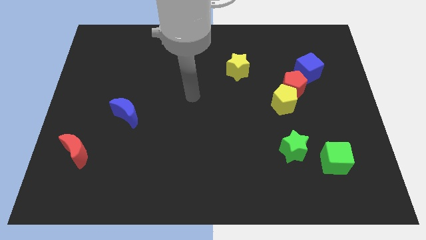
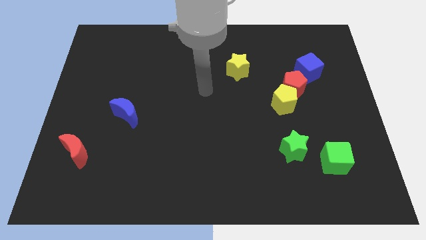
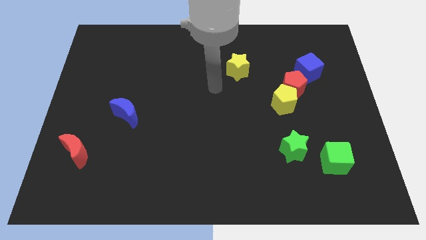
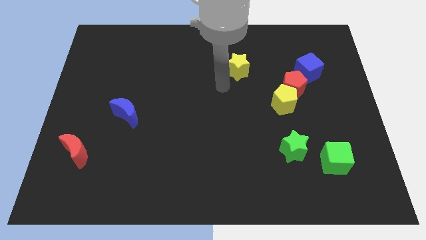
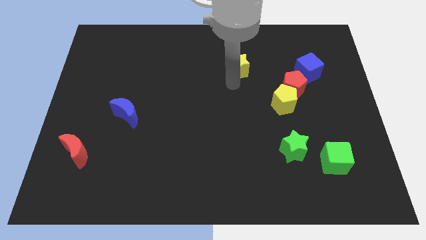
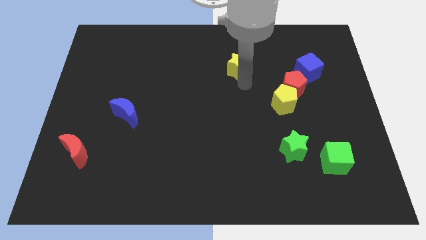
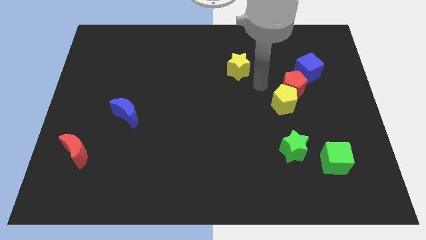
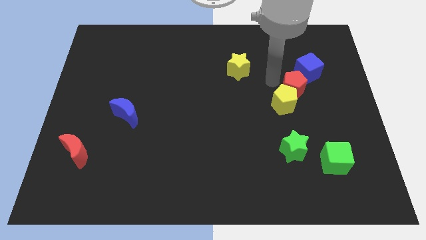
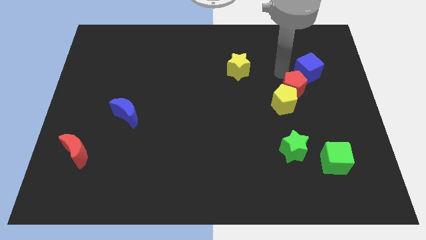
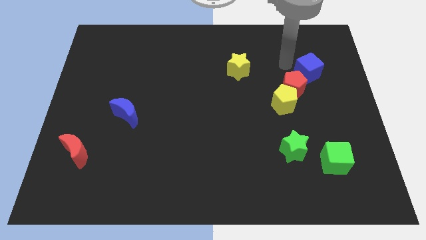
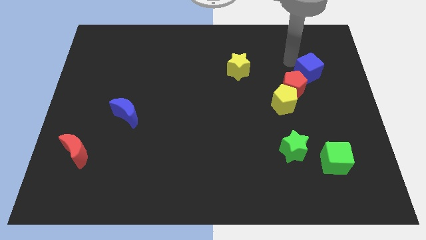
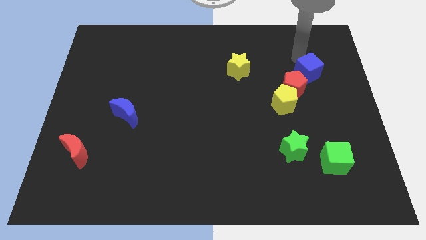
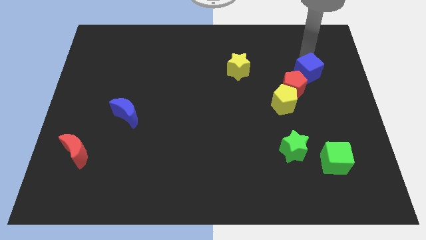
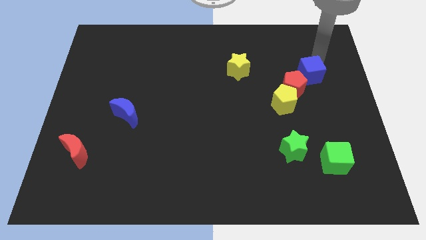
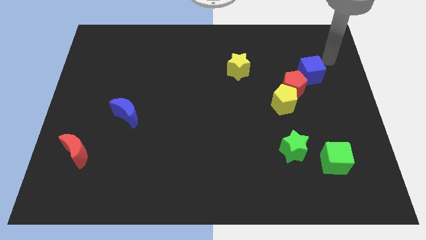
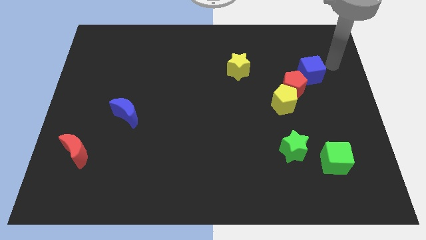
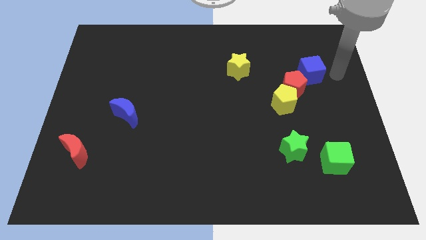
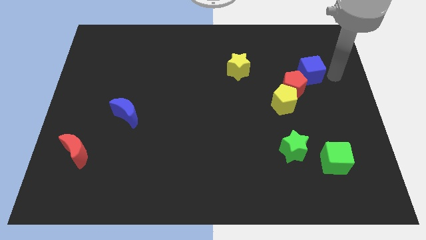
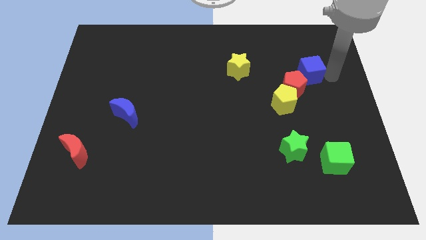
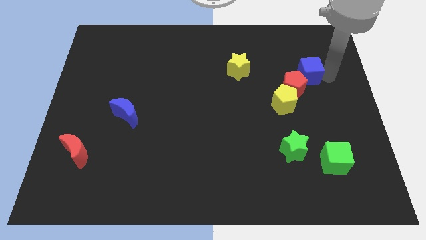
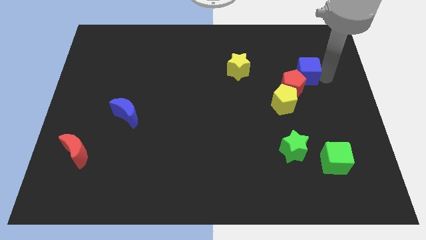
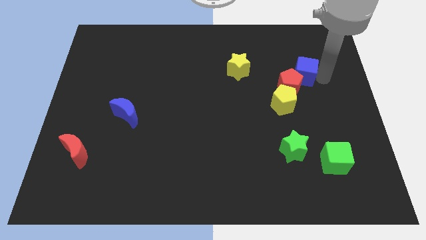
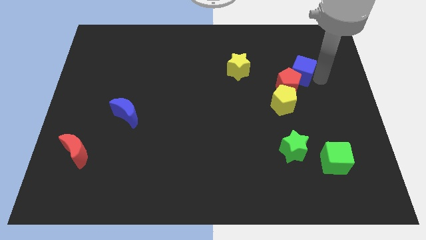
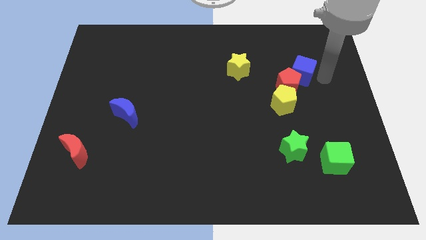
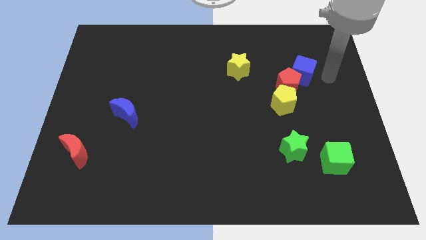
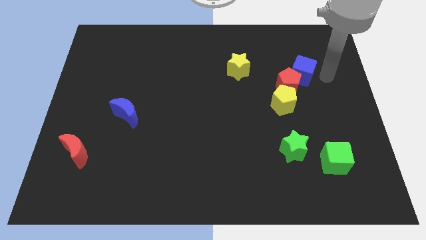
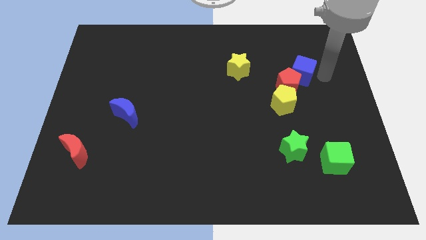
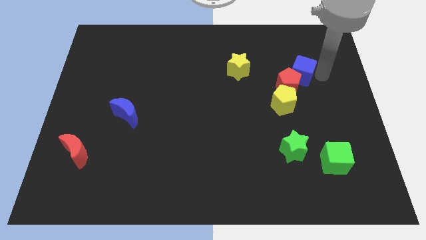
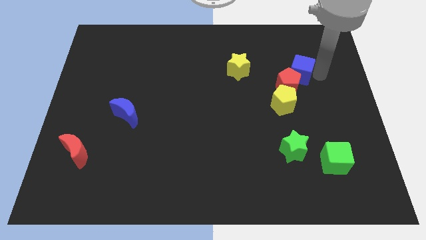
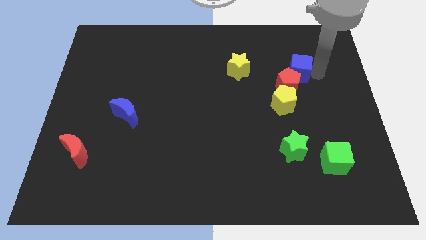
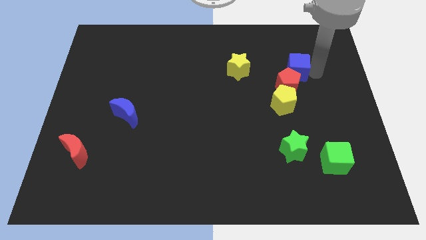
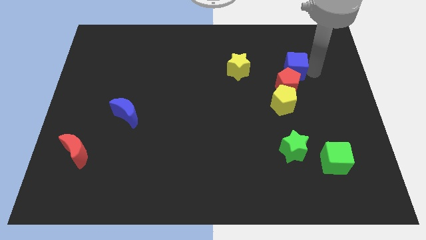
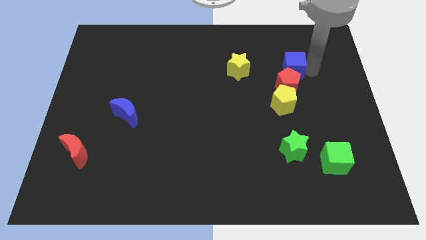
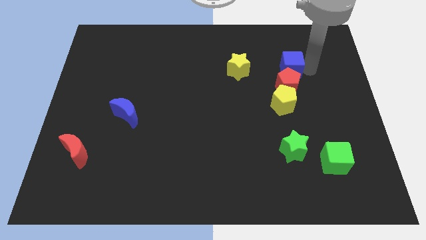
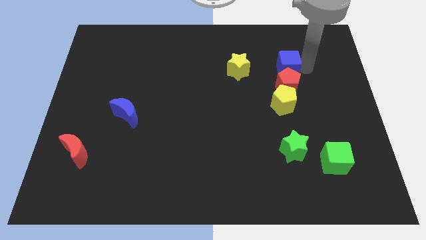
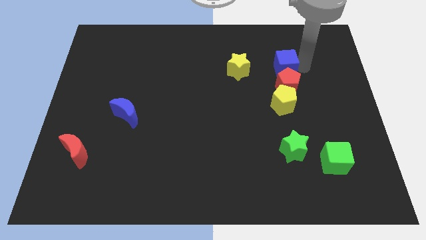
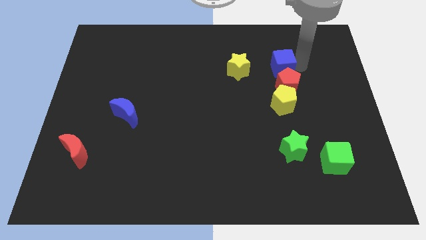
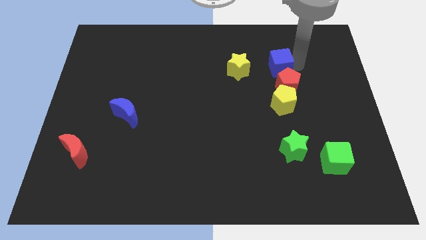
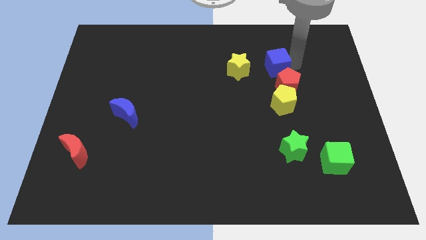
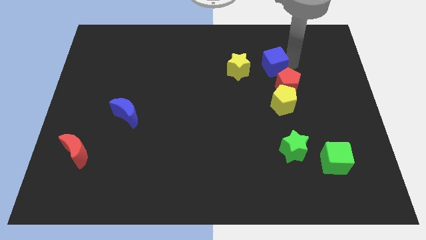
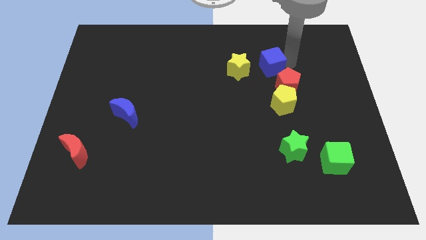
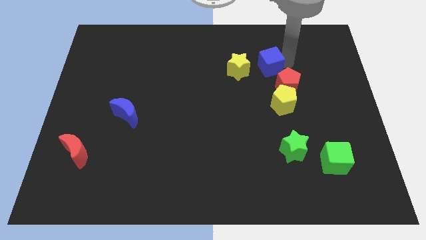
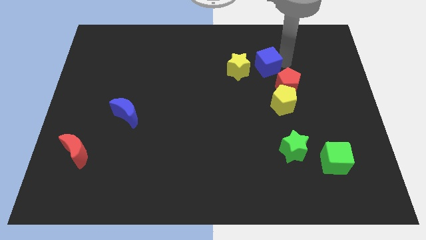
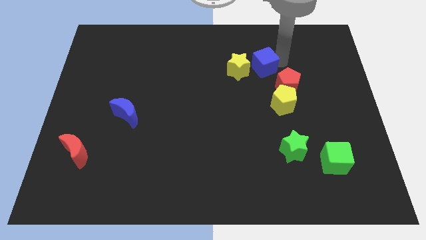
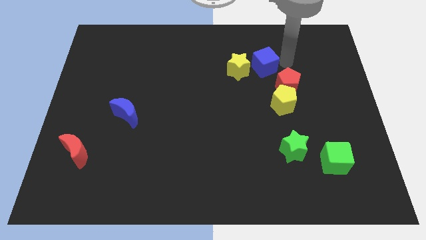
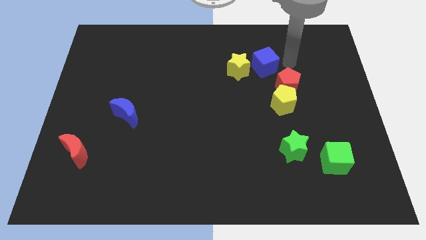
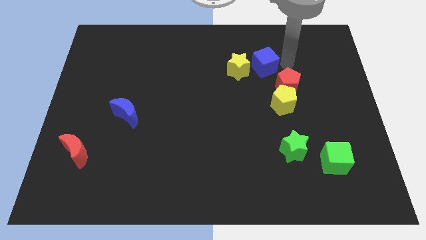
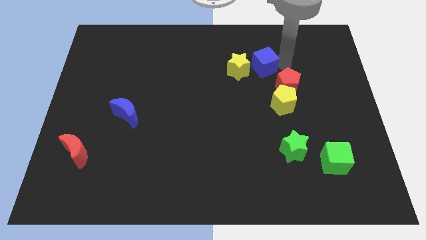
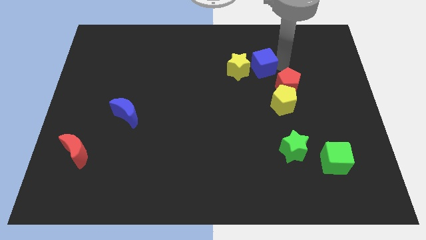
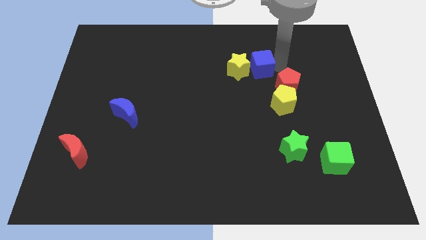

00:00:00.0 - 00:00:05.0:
move the blue cube to the yellow star

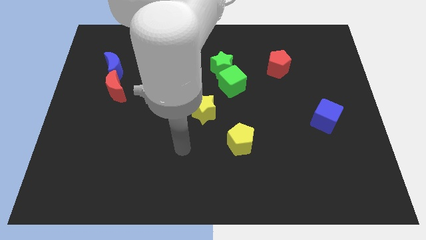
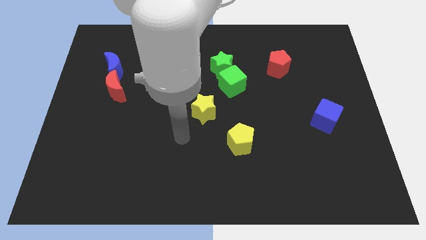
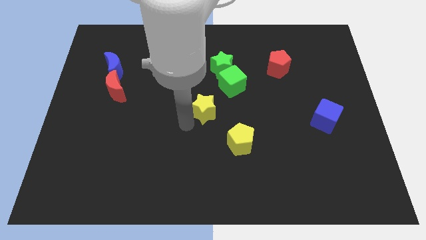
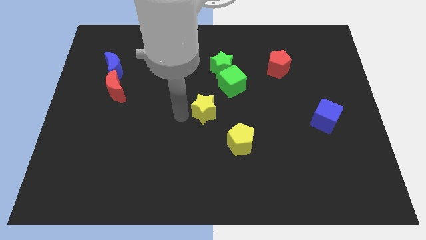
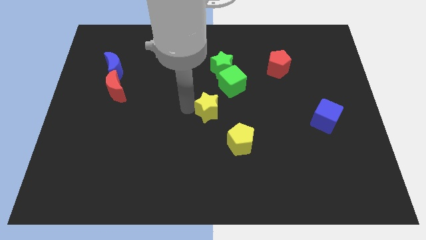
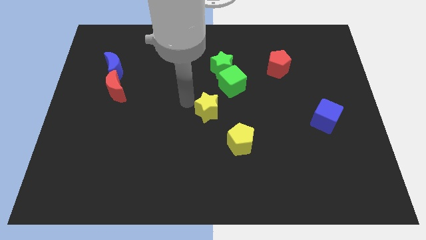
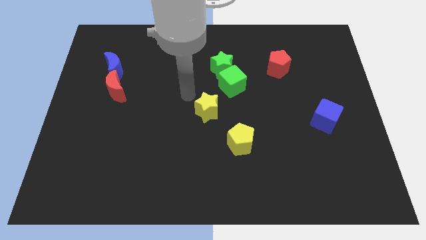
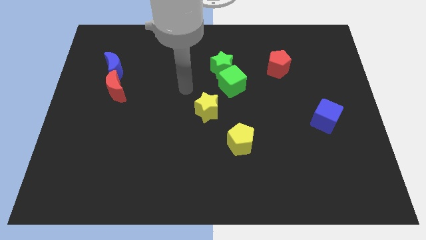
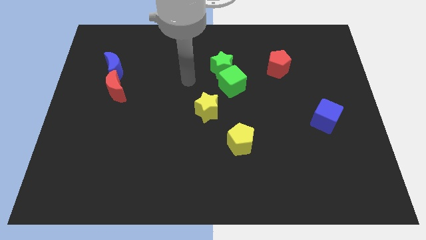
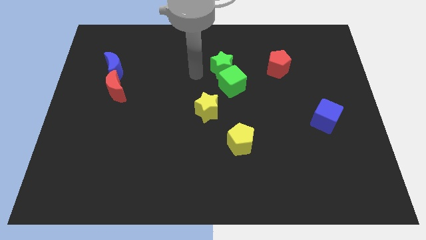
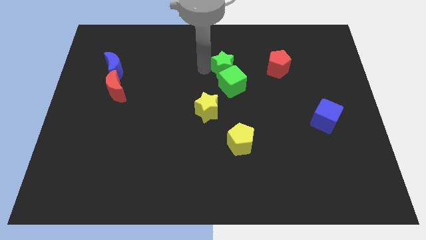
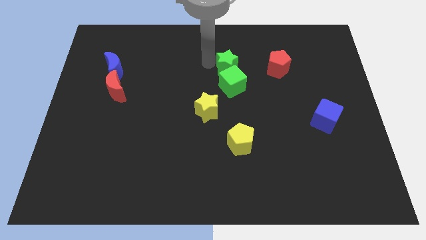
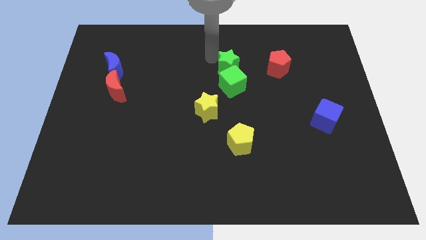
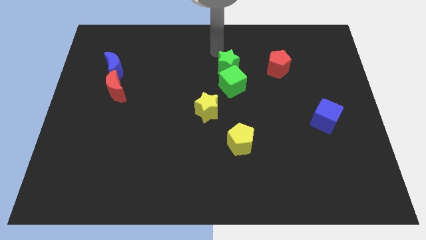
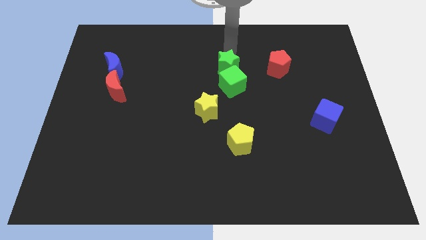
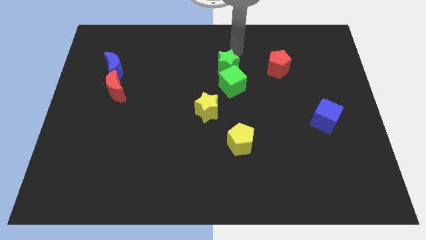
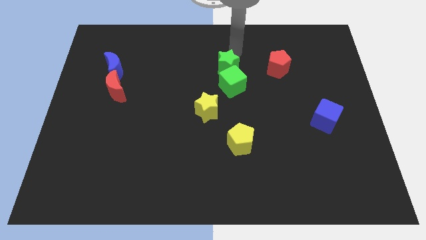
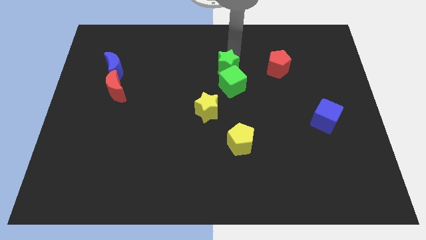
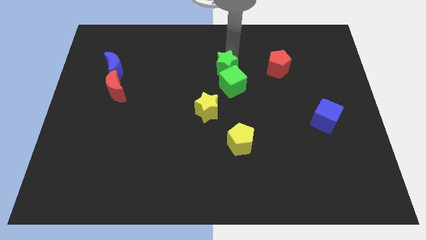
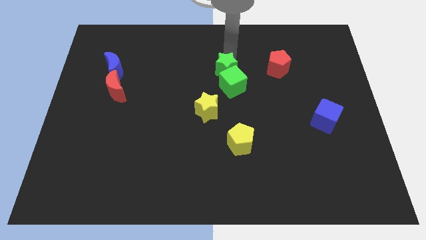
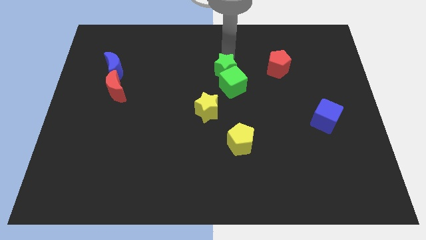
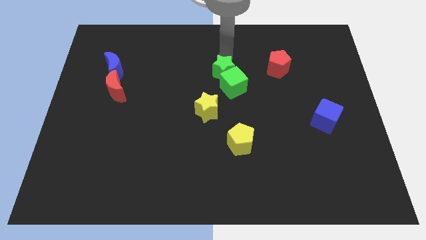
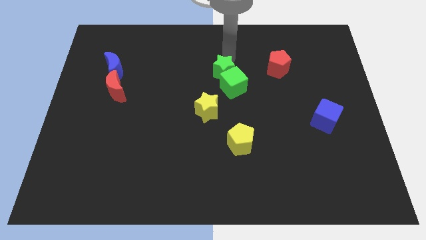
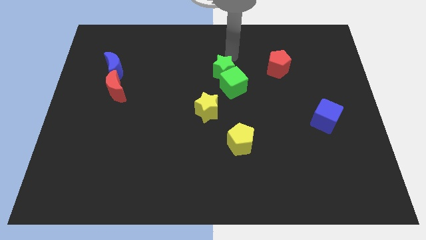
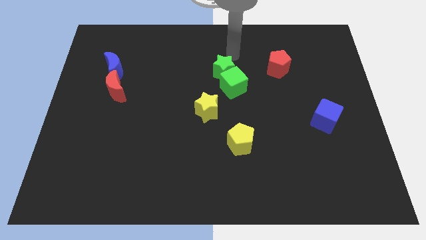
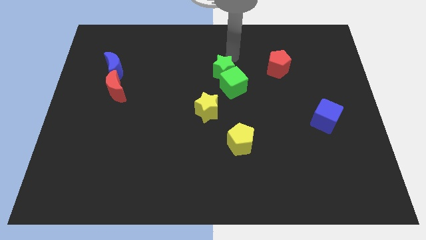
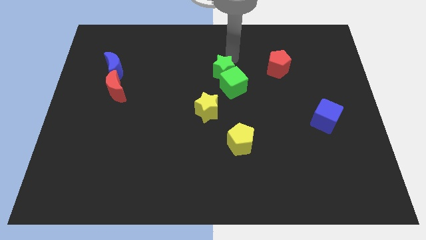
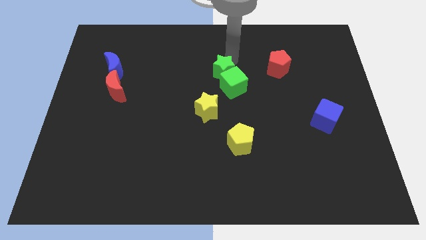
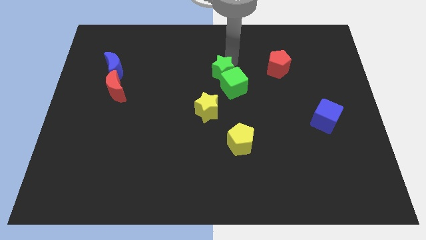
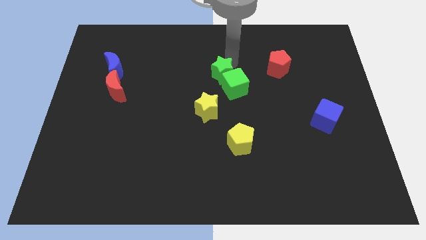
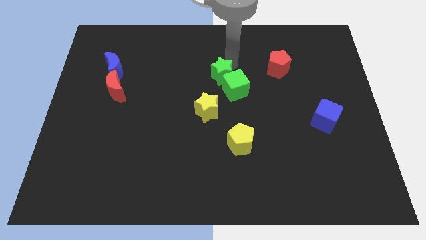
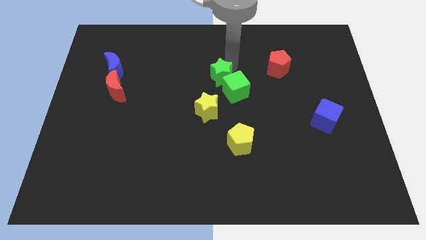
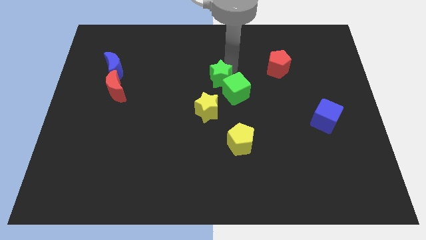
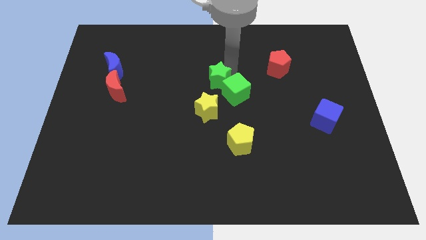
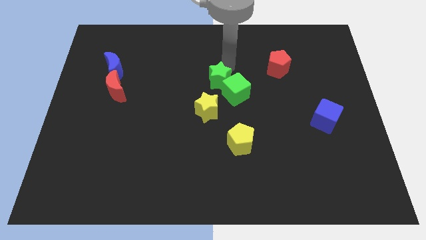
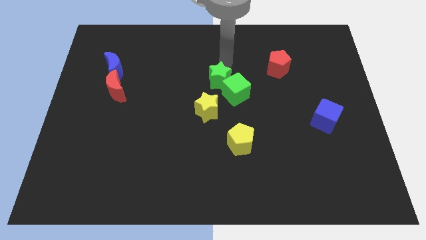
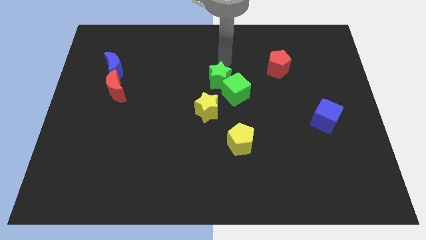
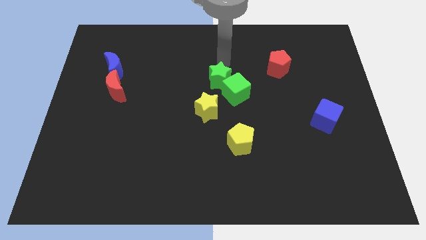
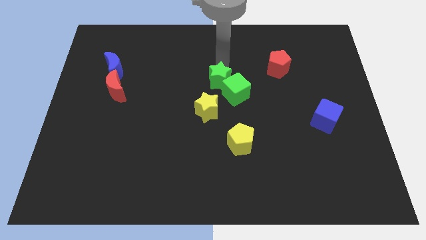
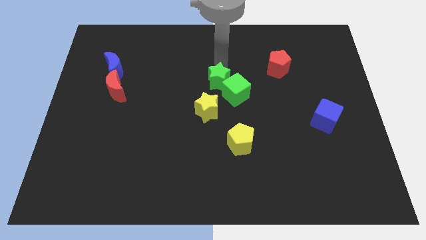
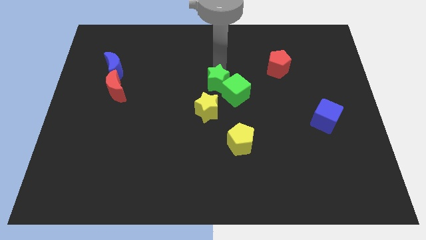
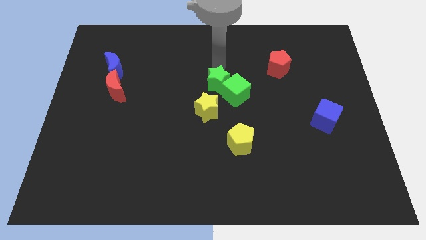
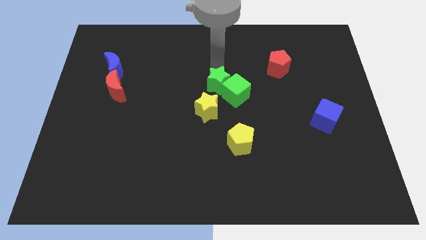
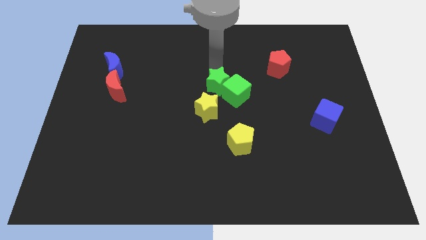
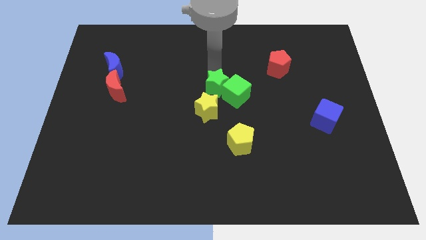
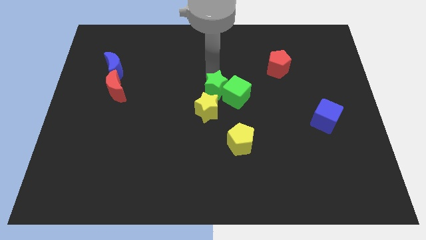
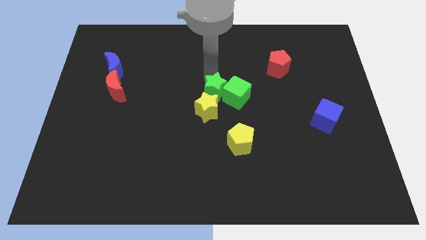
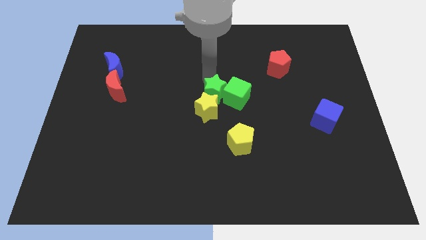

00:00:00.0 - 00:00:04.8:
slide the green star close to the yellow star
